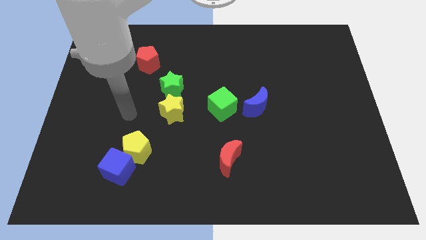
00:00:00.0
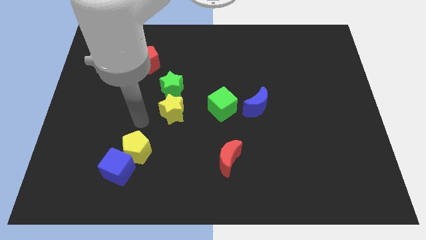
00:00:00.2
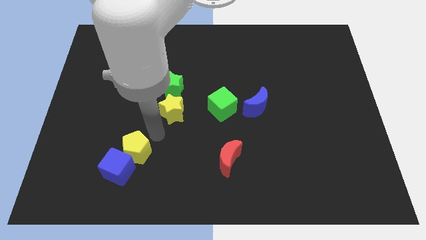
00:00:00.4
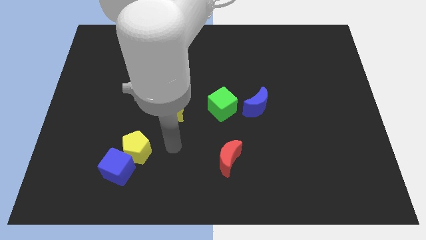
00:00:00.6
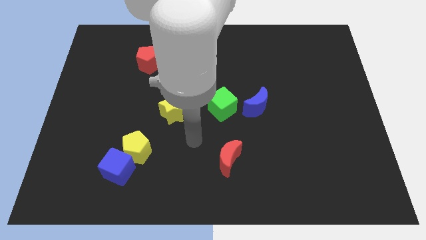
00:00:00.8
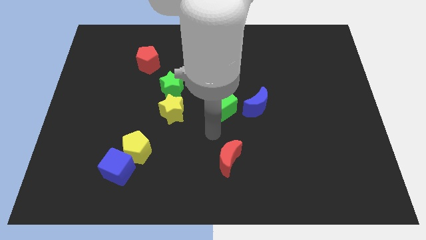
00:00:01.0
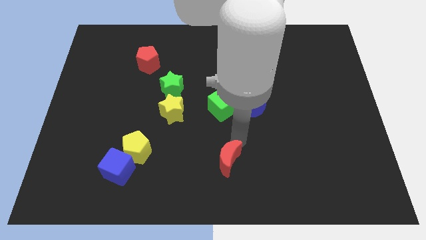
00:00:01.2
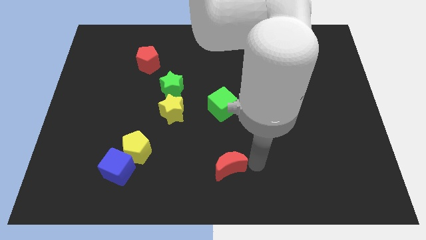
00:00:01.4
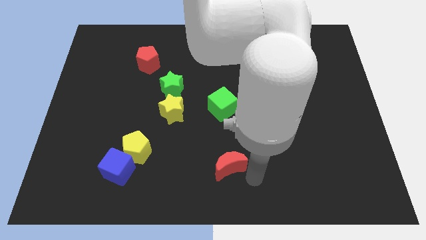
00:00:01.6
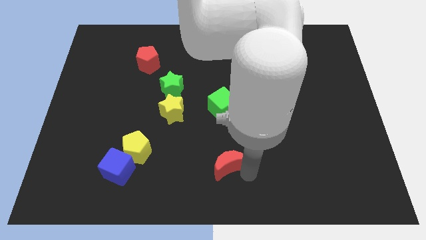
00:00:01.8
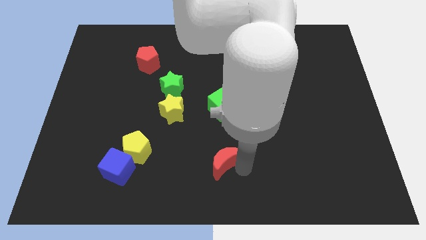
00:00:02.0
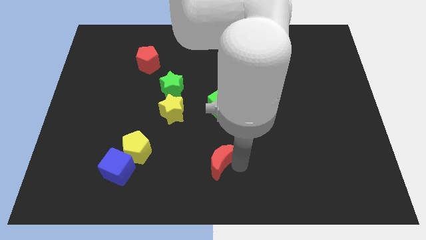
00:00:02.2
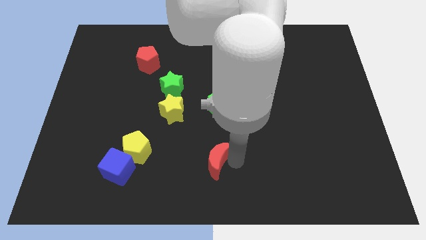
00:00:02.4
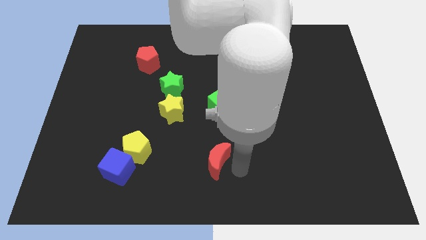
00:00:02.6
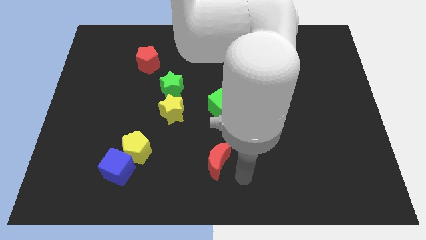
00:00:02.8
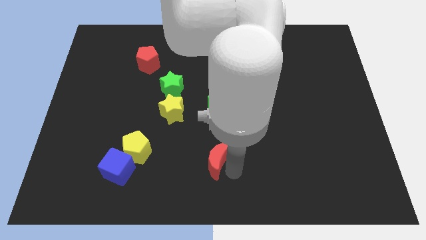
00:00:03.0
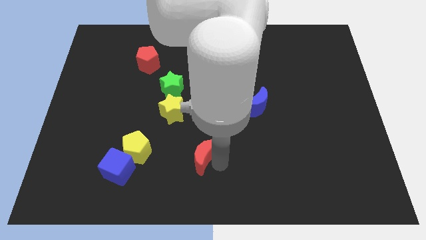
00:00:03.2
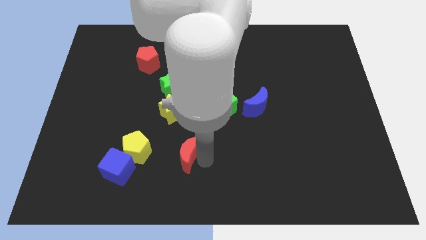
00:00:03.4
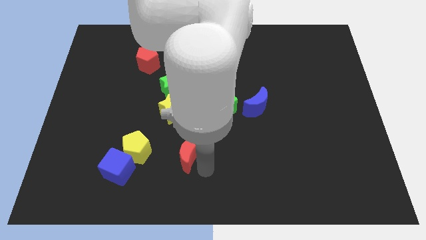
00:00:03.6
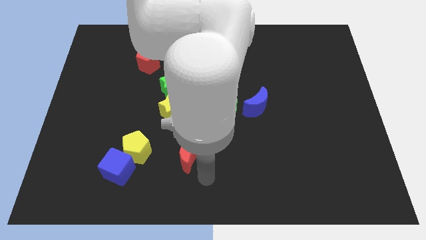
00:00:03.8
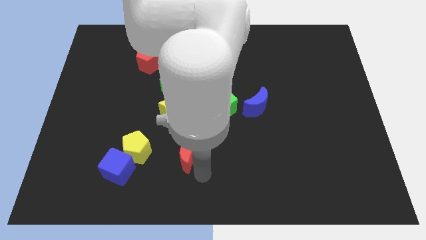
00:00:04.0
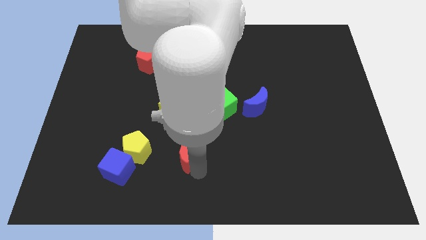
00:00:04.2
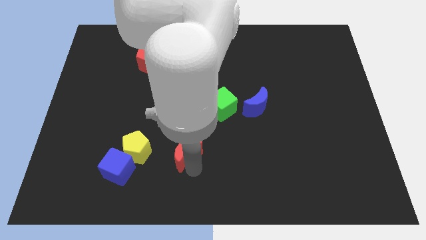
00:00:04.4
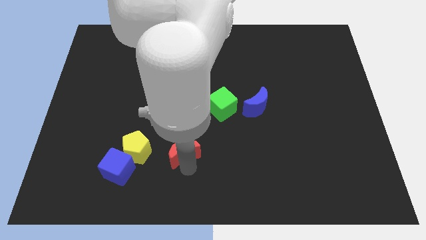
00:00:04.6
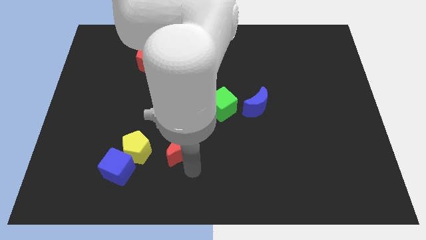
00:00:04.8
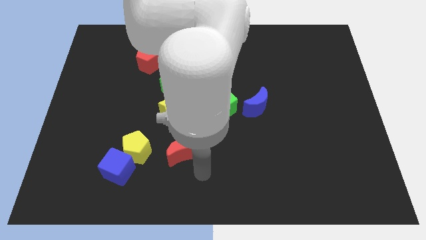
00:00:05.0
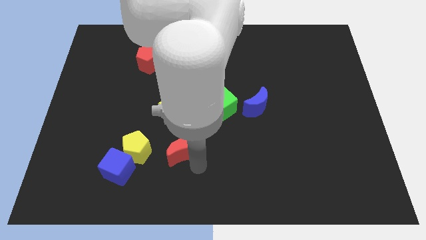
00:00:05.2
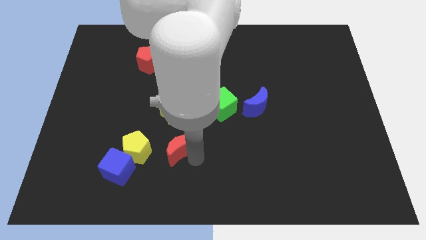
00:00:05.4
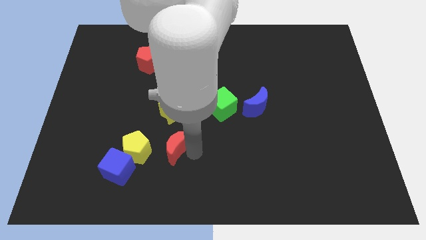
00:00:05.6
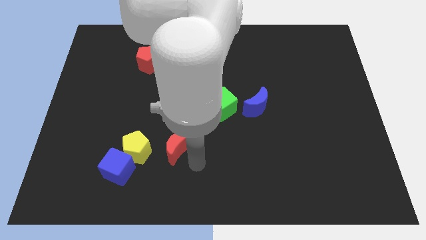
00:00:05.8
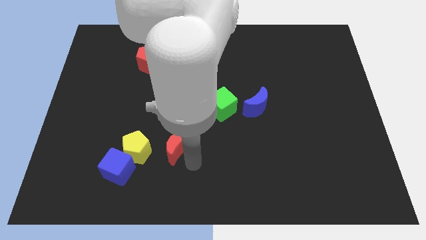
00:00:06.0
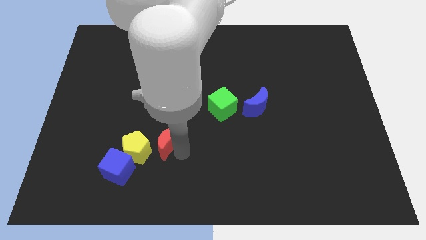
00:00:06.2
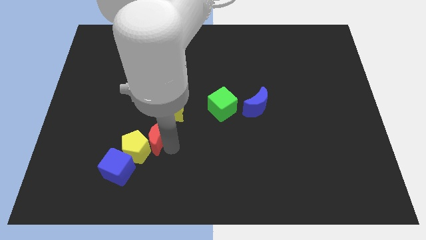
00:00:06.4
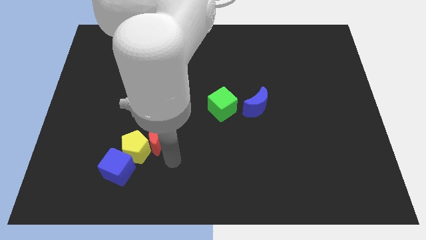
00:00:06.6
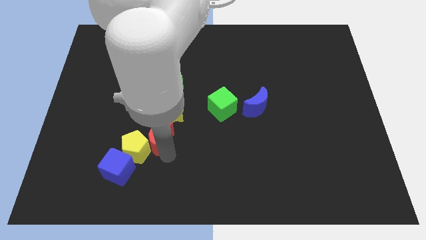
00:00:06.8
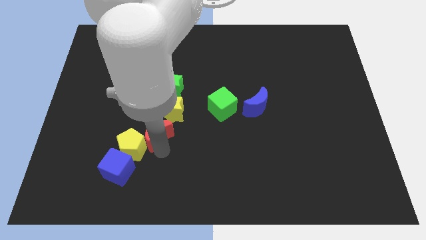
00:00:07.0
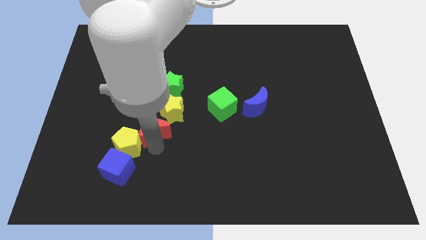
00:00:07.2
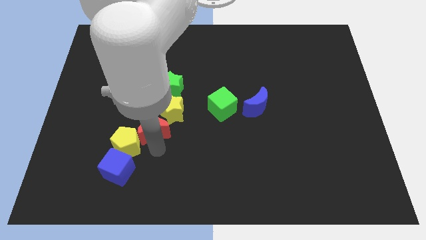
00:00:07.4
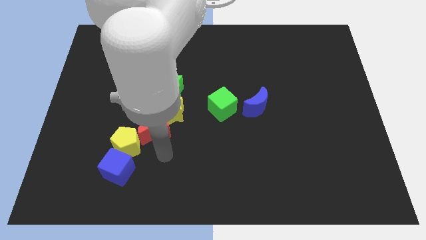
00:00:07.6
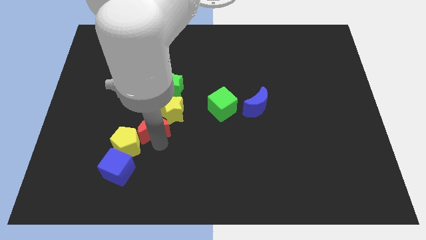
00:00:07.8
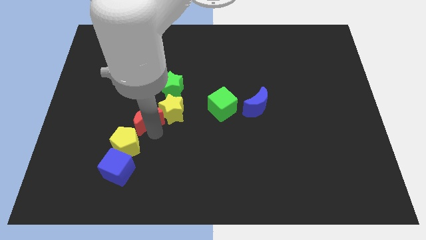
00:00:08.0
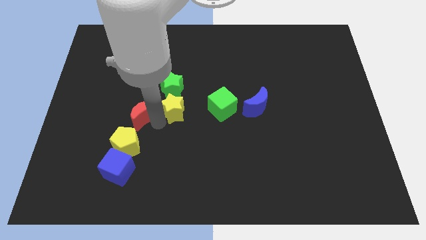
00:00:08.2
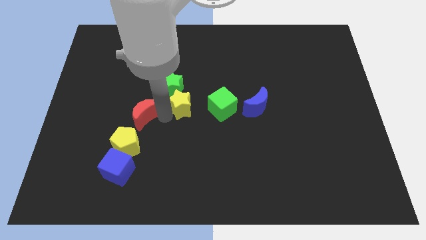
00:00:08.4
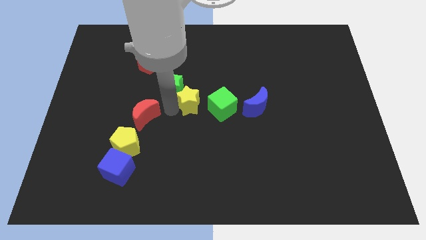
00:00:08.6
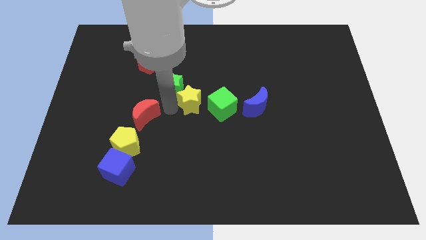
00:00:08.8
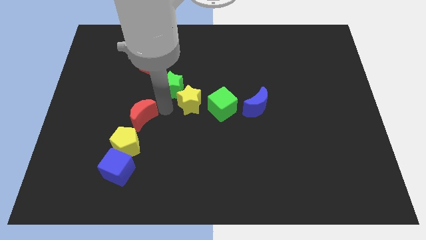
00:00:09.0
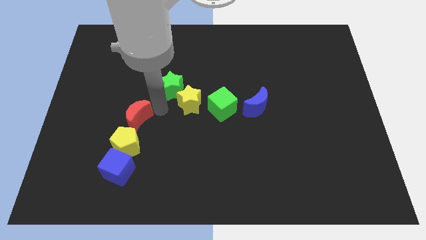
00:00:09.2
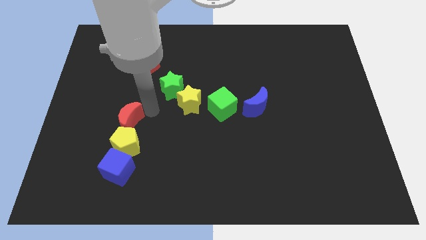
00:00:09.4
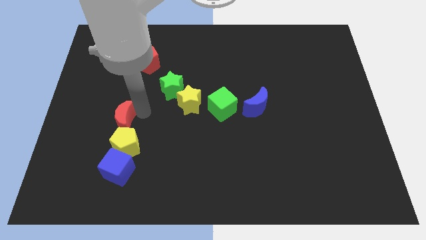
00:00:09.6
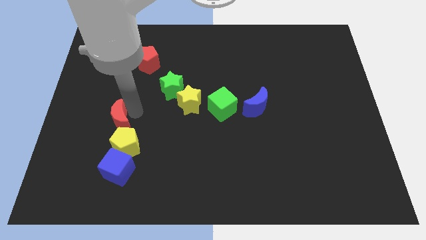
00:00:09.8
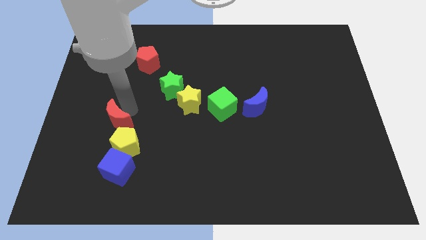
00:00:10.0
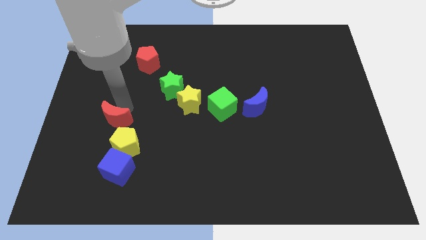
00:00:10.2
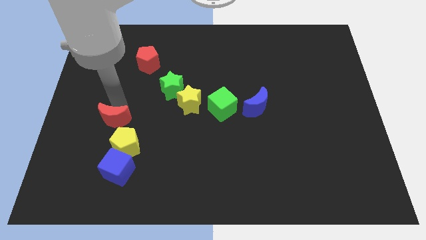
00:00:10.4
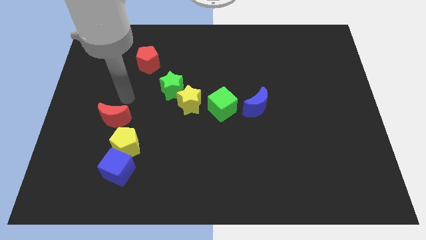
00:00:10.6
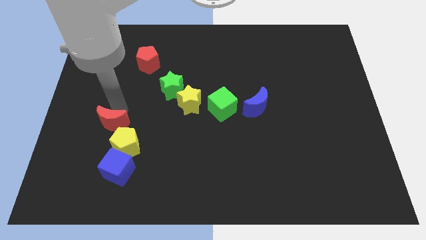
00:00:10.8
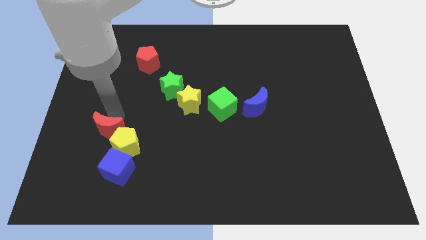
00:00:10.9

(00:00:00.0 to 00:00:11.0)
move the red moon diagonally up and to the left of the blue cube

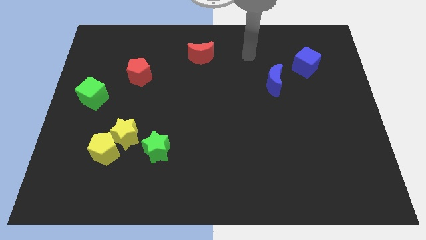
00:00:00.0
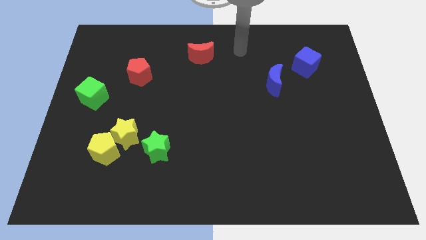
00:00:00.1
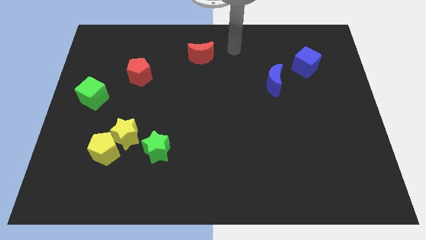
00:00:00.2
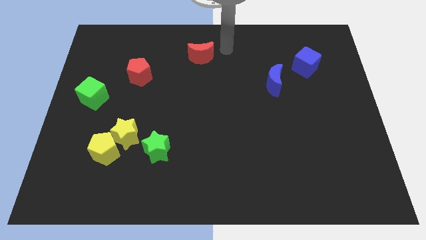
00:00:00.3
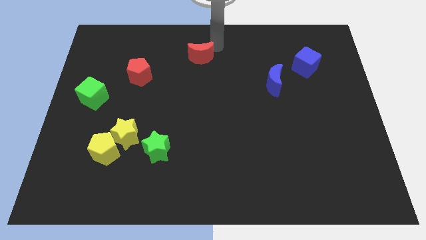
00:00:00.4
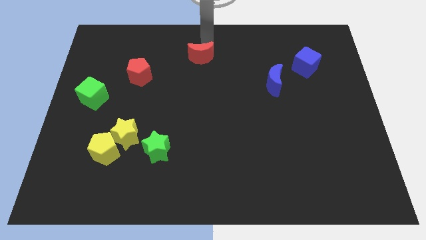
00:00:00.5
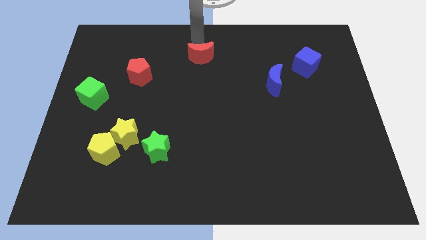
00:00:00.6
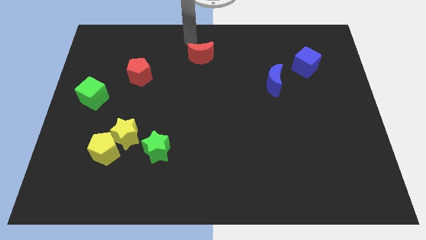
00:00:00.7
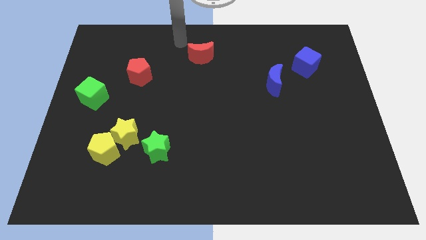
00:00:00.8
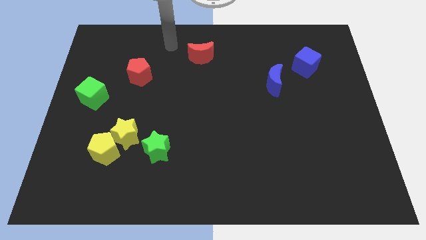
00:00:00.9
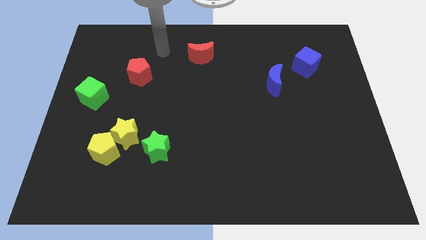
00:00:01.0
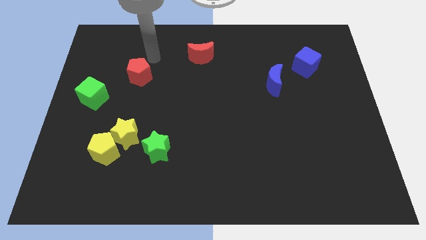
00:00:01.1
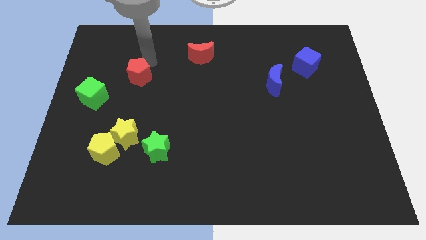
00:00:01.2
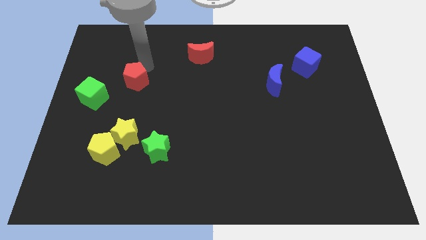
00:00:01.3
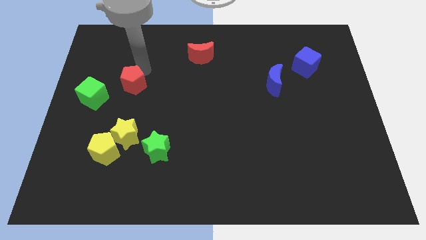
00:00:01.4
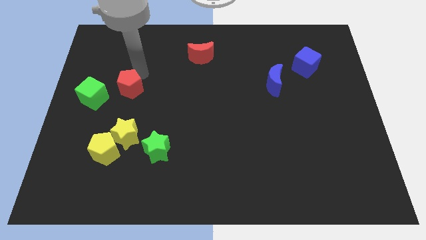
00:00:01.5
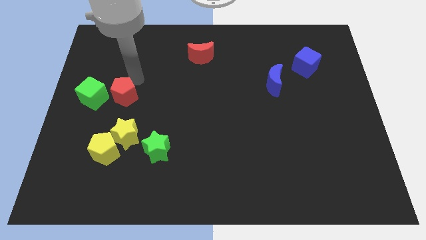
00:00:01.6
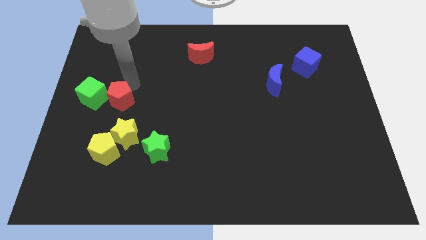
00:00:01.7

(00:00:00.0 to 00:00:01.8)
slide the red pentagon to the bottom right side of the green cube
